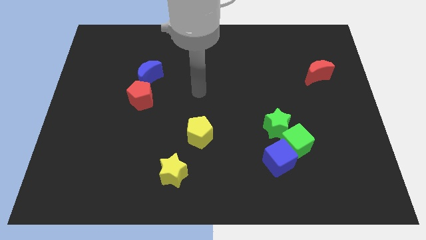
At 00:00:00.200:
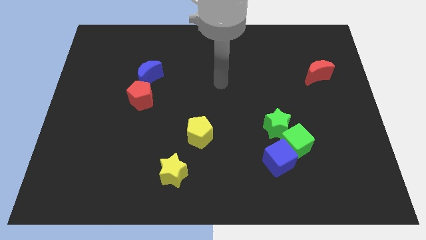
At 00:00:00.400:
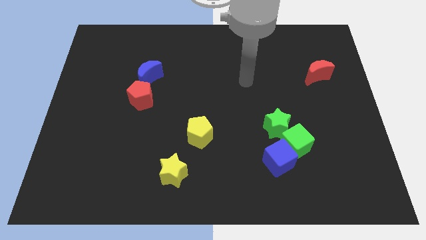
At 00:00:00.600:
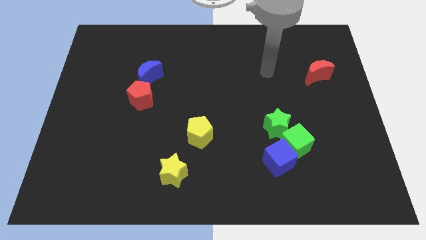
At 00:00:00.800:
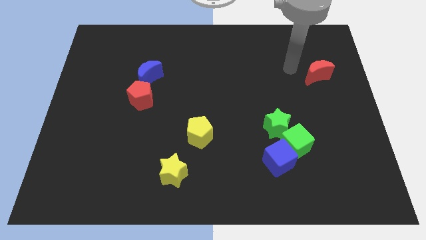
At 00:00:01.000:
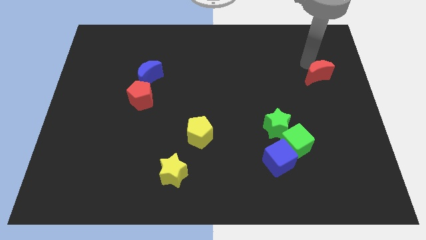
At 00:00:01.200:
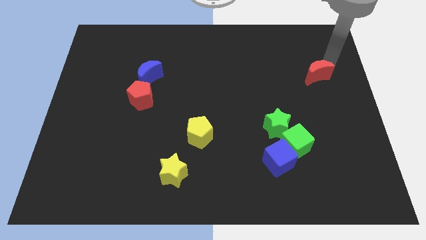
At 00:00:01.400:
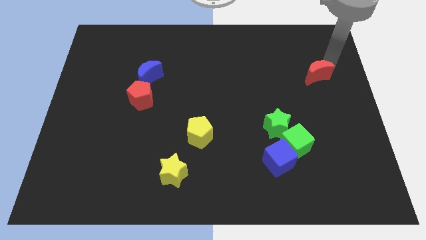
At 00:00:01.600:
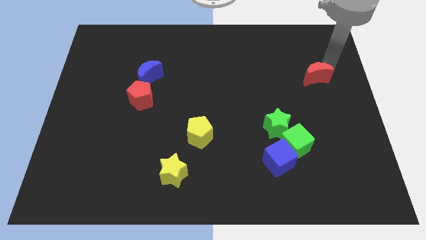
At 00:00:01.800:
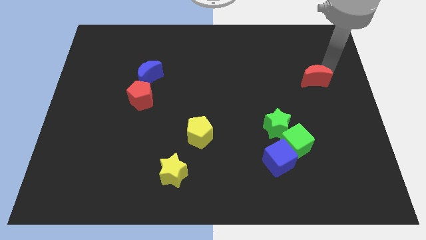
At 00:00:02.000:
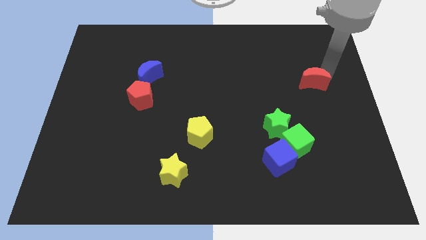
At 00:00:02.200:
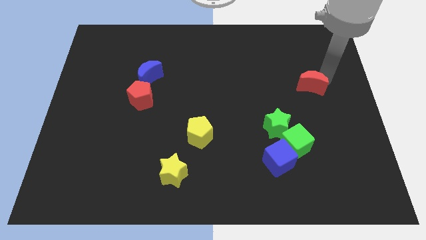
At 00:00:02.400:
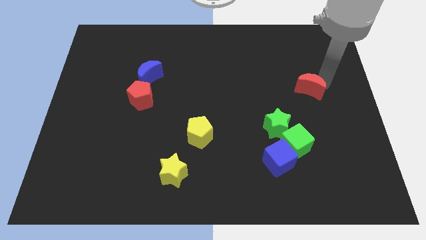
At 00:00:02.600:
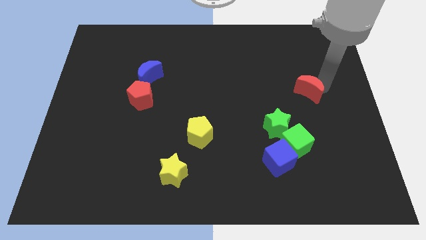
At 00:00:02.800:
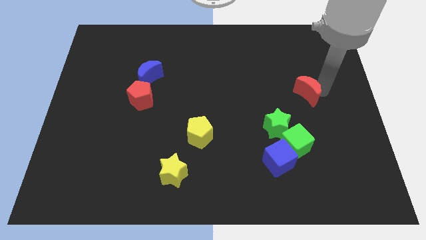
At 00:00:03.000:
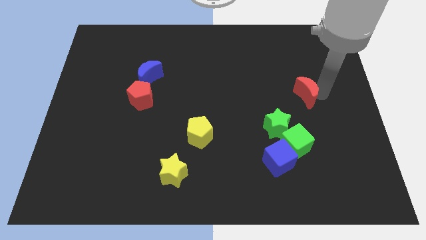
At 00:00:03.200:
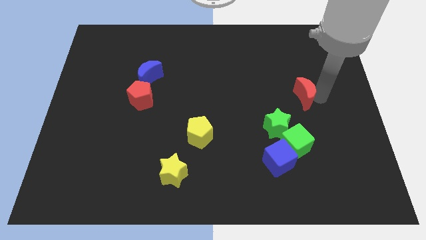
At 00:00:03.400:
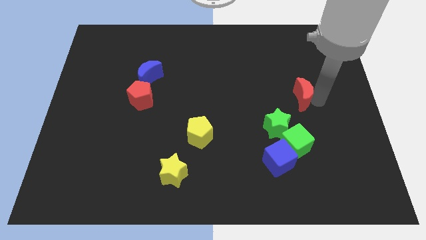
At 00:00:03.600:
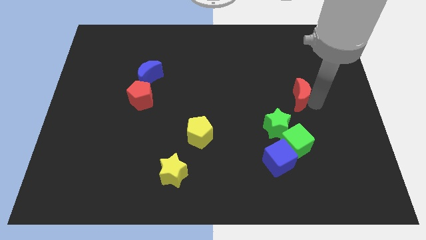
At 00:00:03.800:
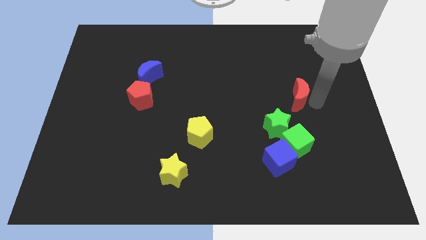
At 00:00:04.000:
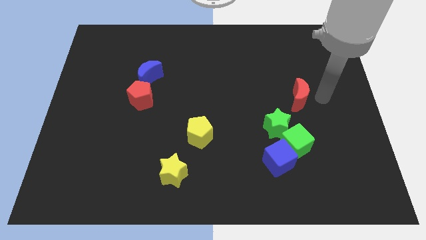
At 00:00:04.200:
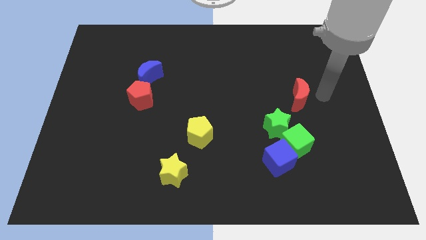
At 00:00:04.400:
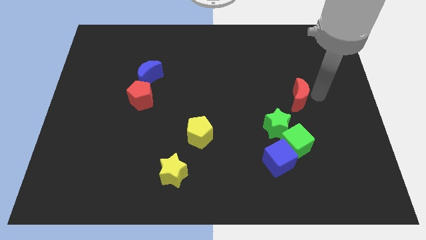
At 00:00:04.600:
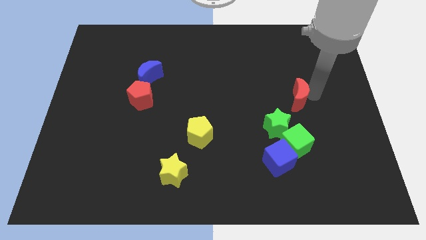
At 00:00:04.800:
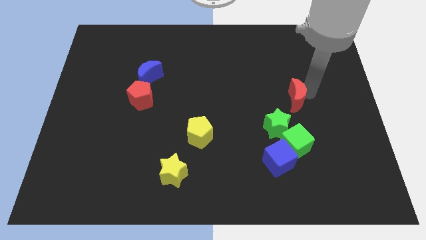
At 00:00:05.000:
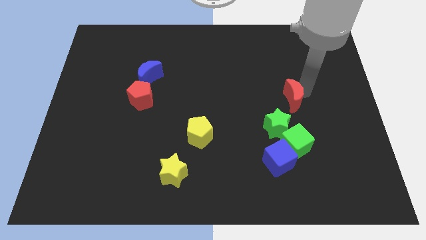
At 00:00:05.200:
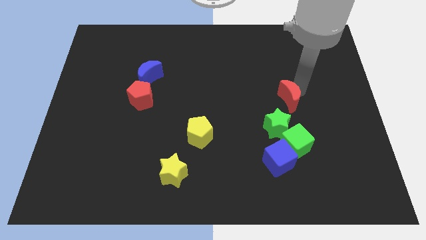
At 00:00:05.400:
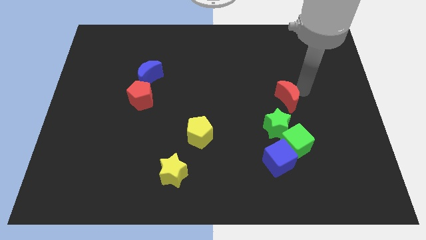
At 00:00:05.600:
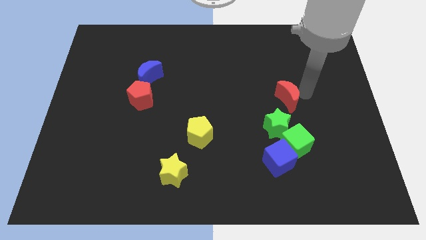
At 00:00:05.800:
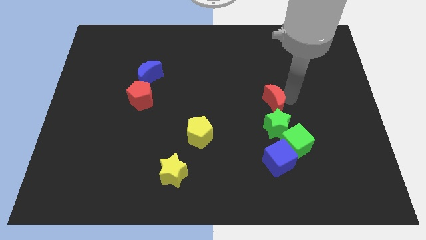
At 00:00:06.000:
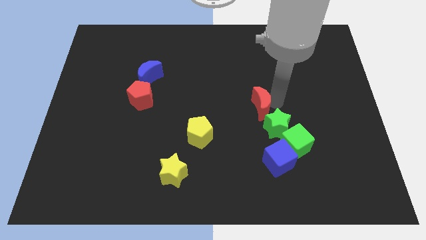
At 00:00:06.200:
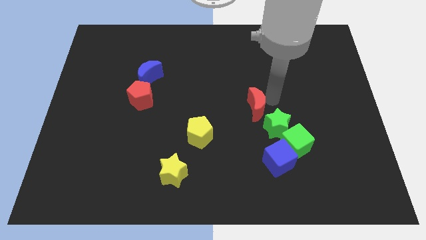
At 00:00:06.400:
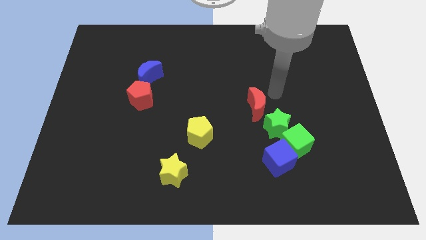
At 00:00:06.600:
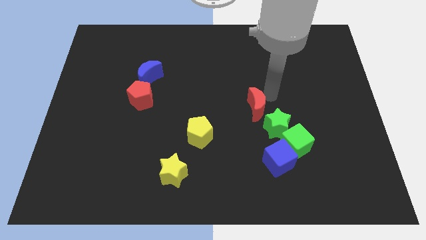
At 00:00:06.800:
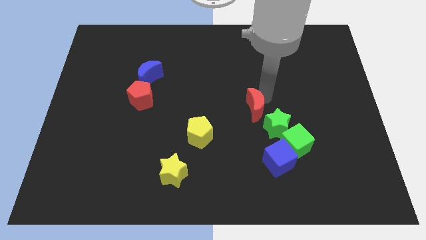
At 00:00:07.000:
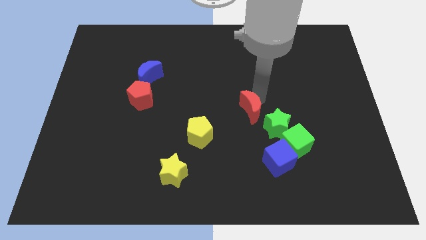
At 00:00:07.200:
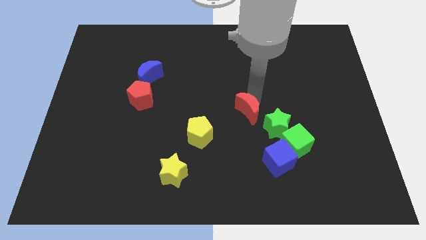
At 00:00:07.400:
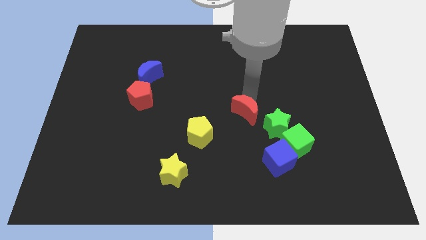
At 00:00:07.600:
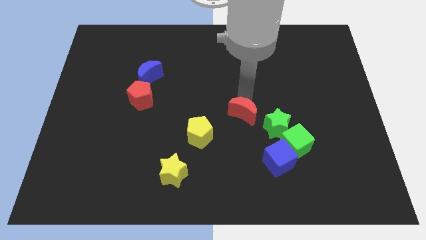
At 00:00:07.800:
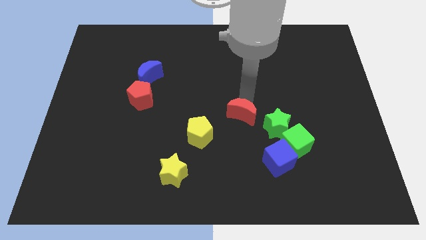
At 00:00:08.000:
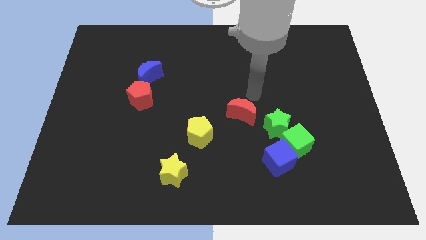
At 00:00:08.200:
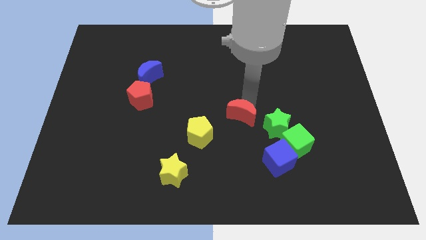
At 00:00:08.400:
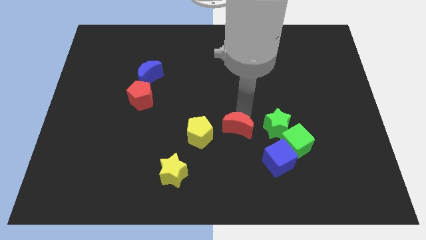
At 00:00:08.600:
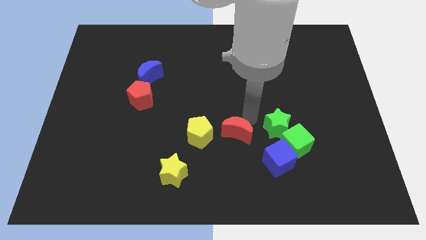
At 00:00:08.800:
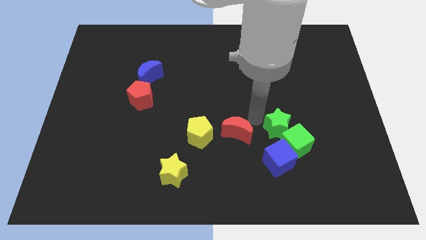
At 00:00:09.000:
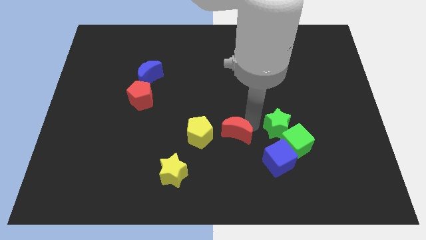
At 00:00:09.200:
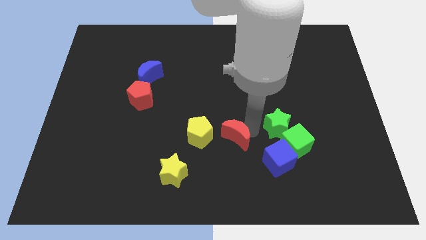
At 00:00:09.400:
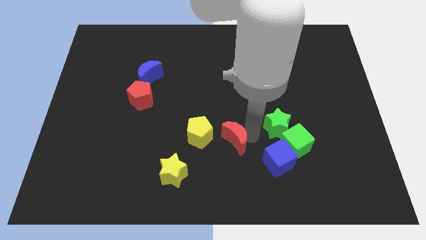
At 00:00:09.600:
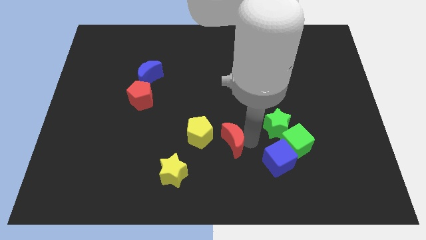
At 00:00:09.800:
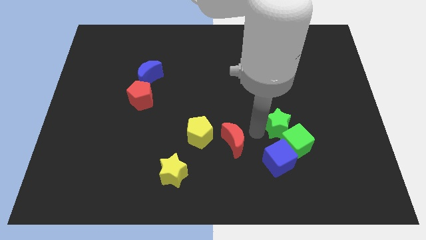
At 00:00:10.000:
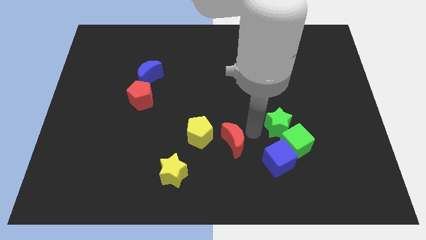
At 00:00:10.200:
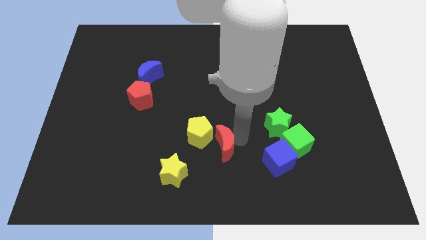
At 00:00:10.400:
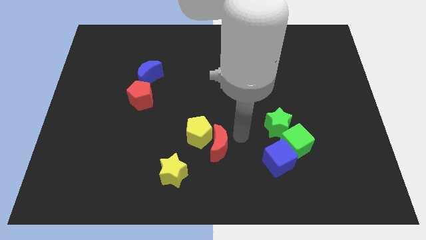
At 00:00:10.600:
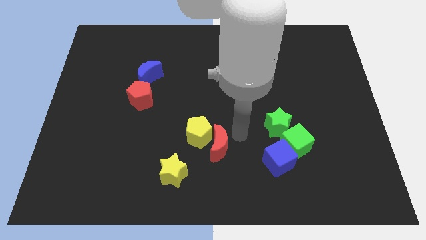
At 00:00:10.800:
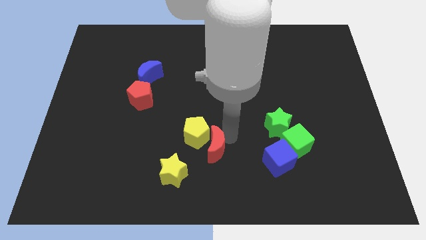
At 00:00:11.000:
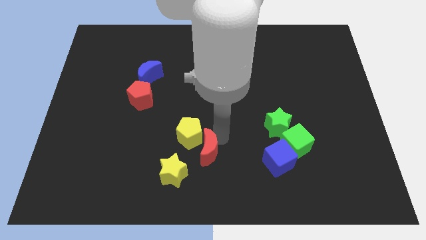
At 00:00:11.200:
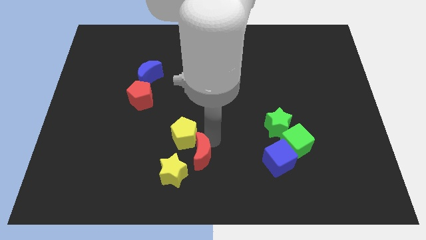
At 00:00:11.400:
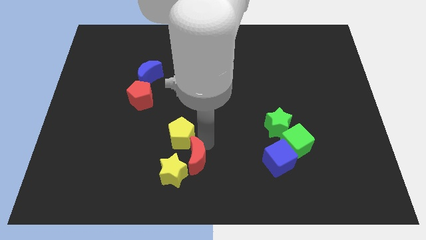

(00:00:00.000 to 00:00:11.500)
put the red moon next to the yellow star
